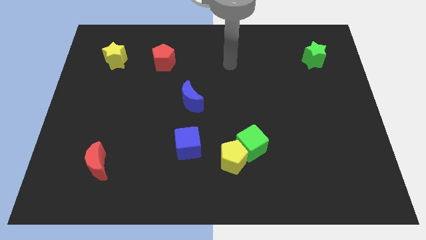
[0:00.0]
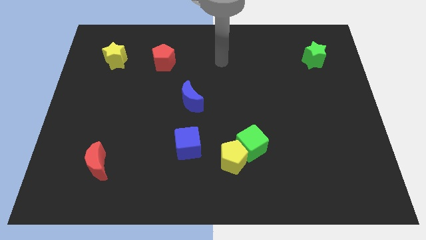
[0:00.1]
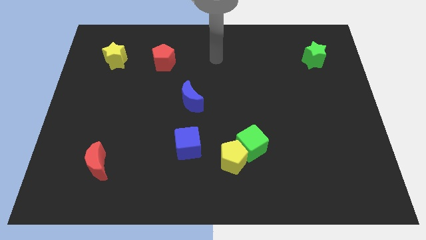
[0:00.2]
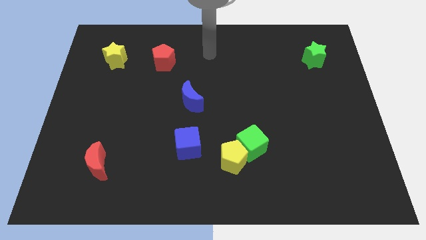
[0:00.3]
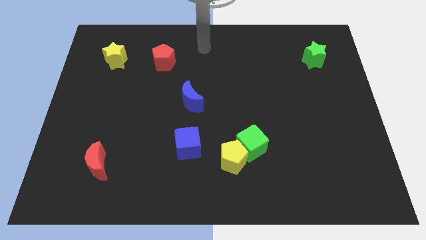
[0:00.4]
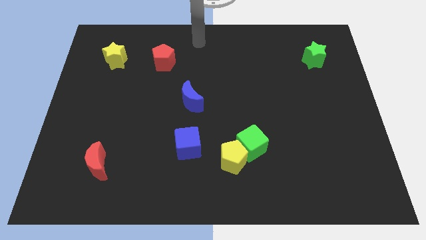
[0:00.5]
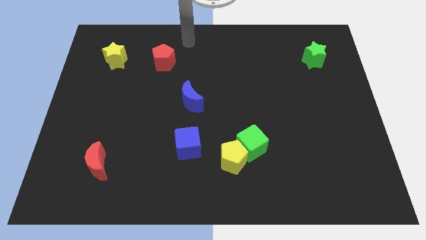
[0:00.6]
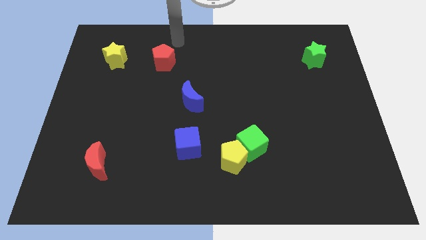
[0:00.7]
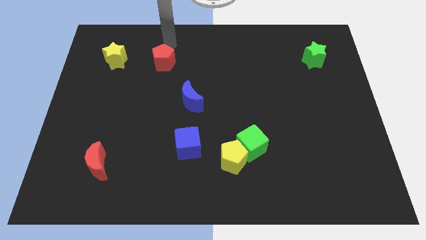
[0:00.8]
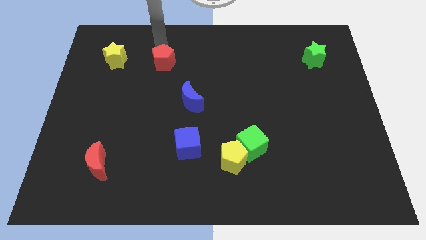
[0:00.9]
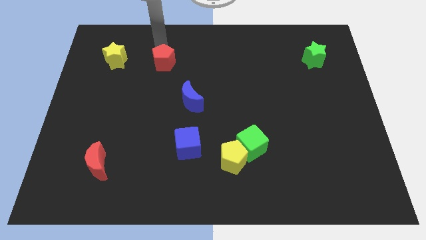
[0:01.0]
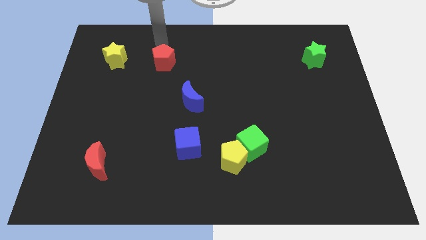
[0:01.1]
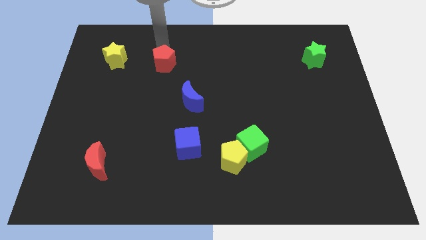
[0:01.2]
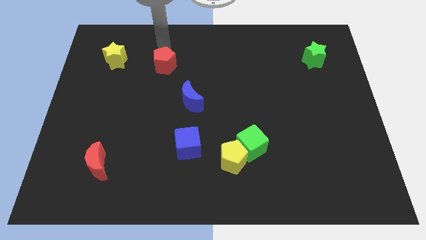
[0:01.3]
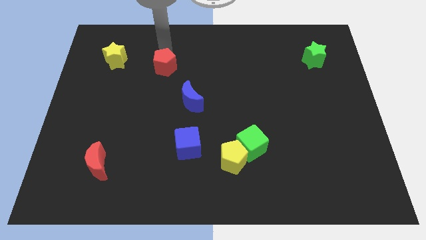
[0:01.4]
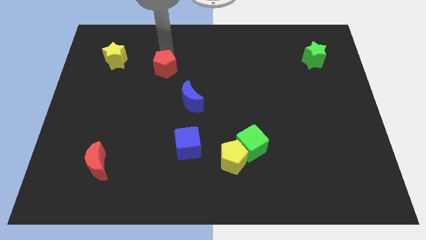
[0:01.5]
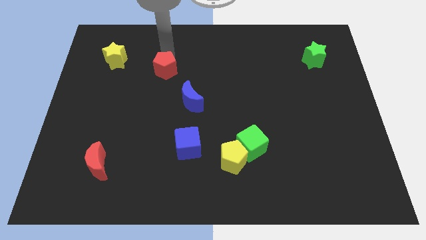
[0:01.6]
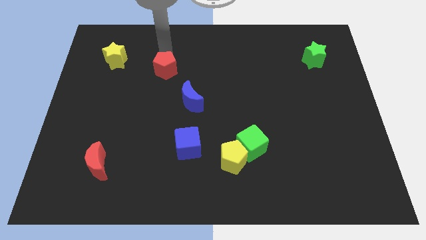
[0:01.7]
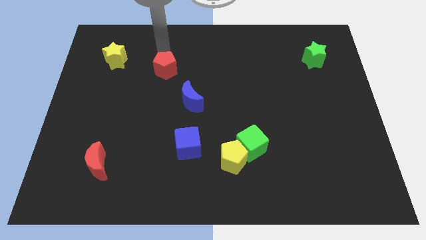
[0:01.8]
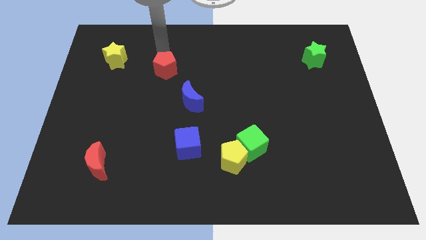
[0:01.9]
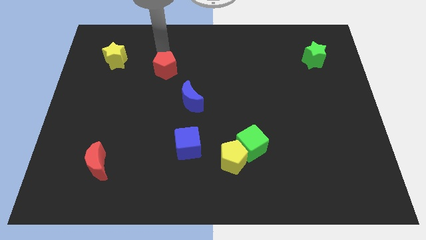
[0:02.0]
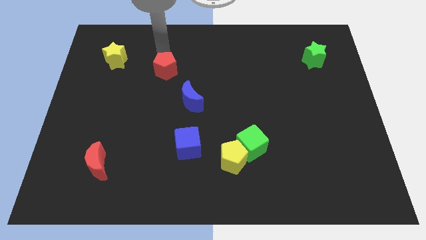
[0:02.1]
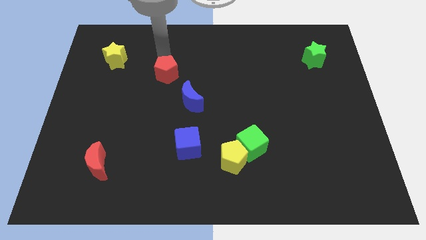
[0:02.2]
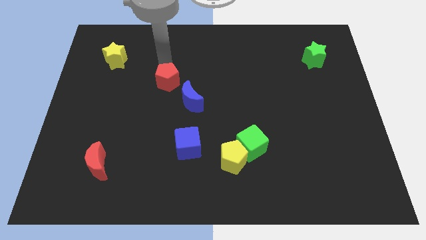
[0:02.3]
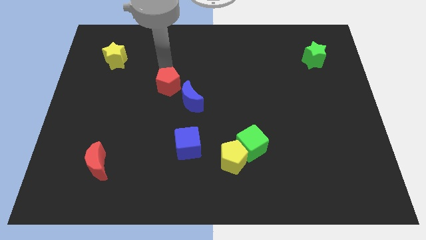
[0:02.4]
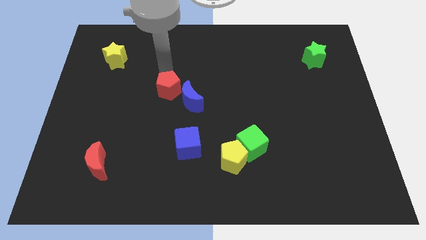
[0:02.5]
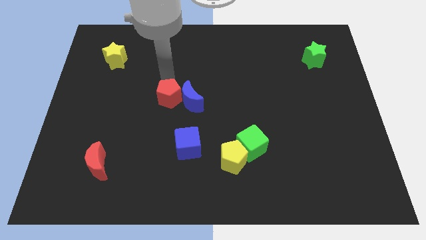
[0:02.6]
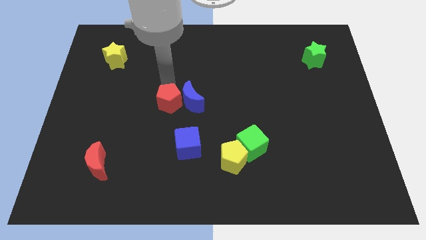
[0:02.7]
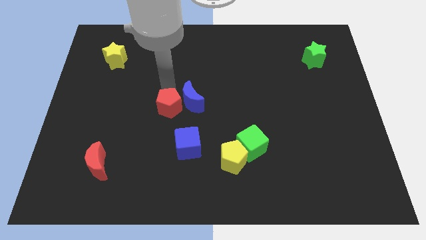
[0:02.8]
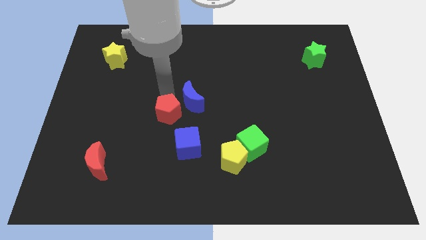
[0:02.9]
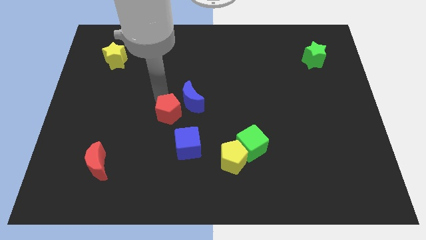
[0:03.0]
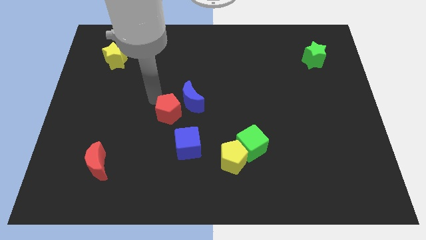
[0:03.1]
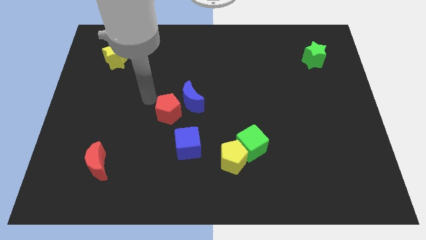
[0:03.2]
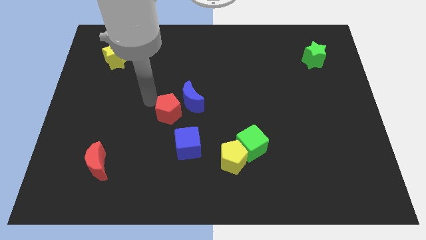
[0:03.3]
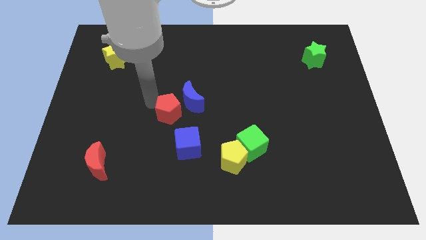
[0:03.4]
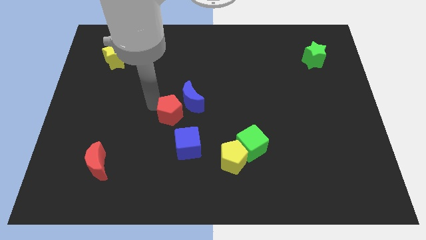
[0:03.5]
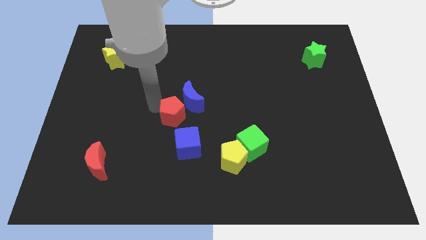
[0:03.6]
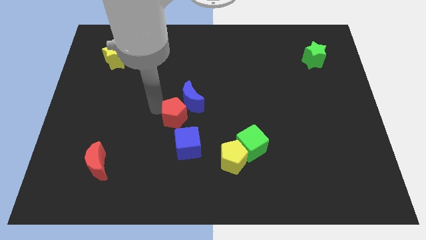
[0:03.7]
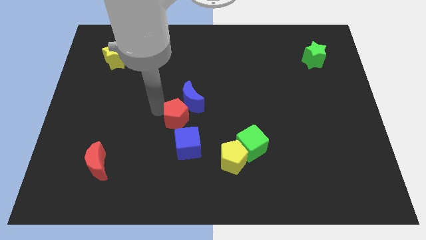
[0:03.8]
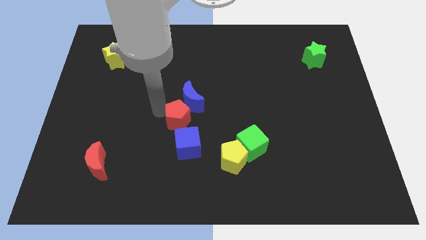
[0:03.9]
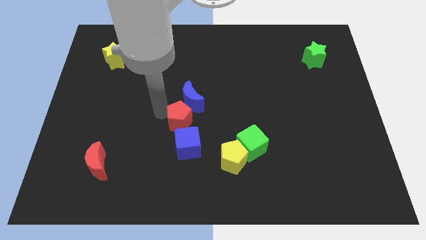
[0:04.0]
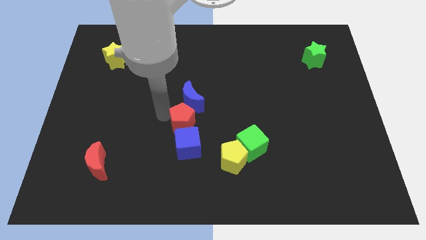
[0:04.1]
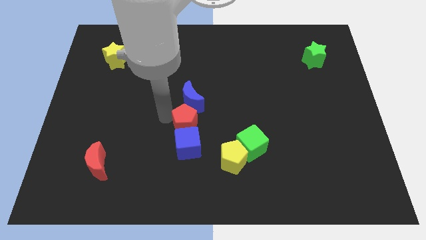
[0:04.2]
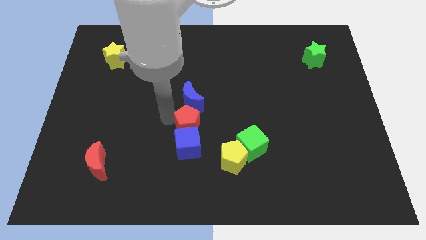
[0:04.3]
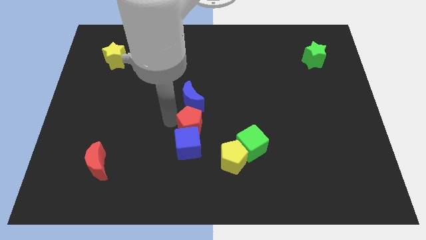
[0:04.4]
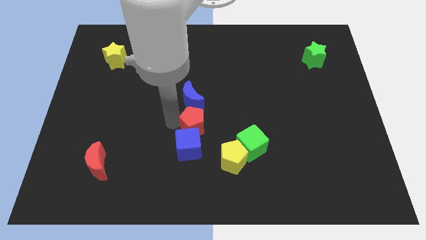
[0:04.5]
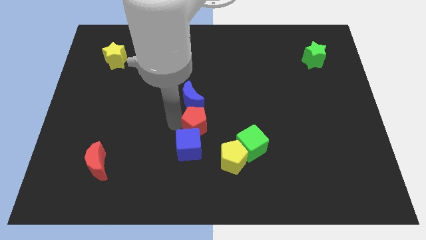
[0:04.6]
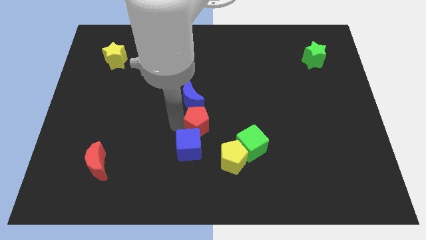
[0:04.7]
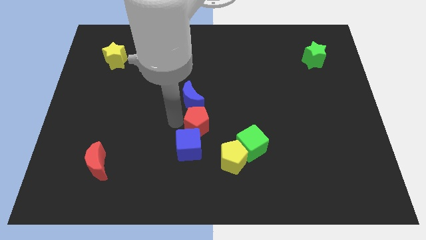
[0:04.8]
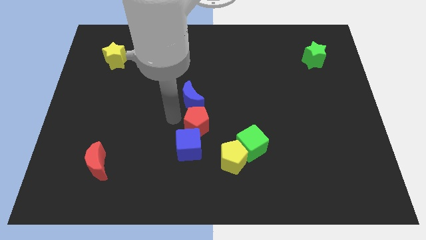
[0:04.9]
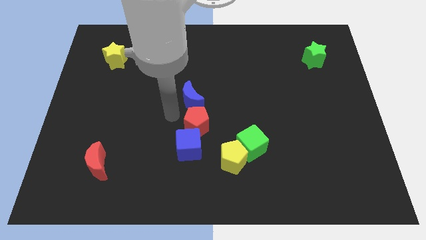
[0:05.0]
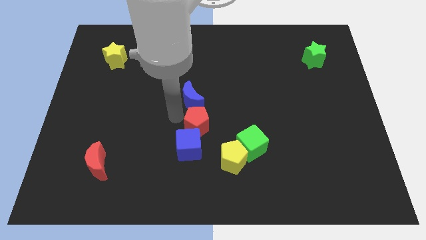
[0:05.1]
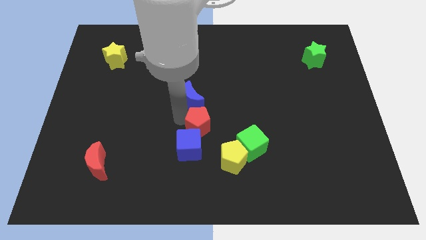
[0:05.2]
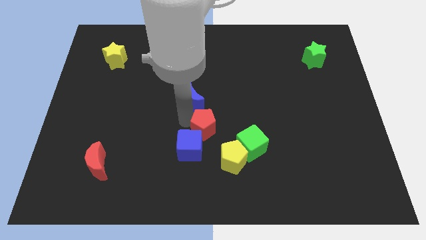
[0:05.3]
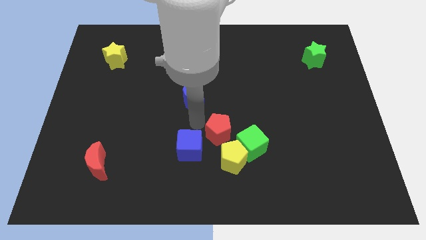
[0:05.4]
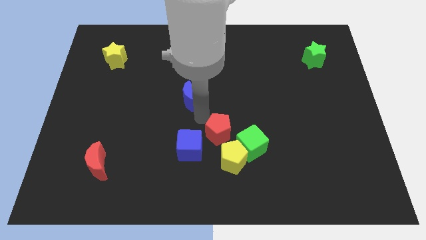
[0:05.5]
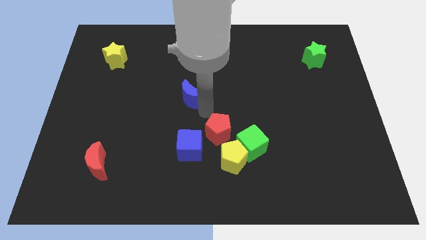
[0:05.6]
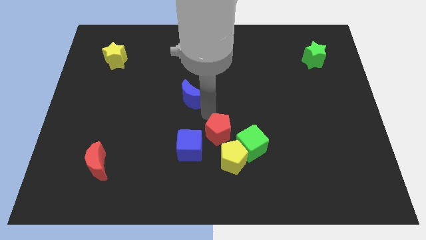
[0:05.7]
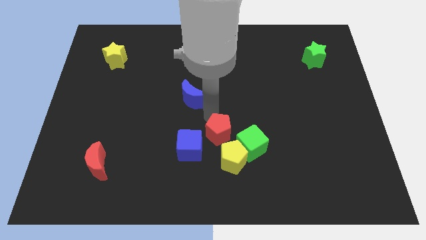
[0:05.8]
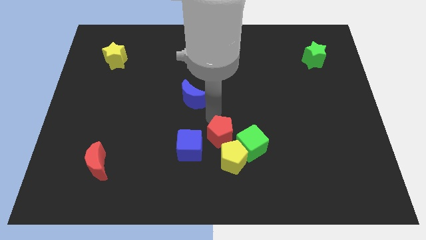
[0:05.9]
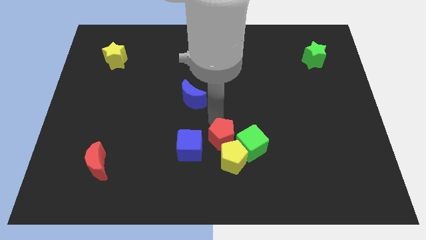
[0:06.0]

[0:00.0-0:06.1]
move the red pentagon to the yellow pentagon
